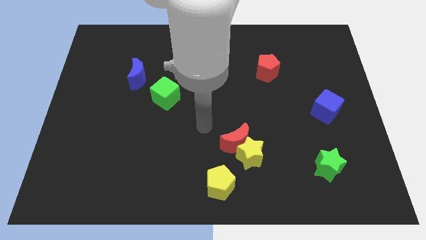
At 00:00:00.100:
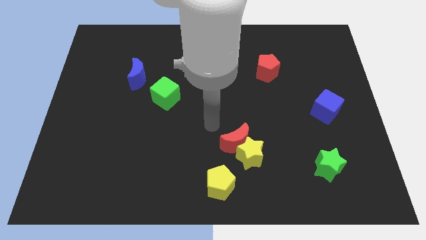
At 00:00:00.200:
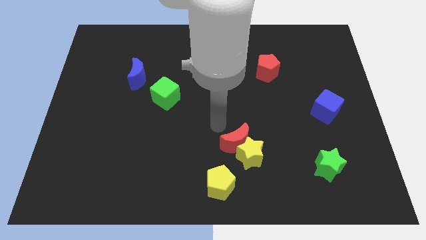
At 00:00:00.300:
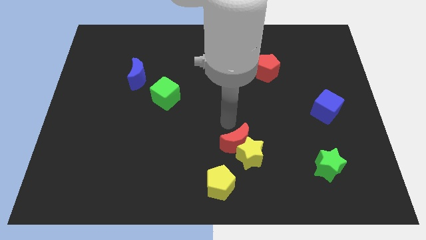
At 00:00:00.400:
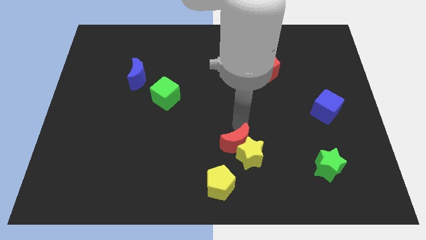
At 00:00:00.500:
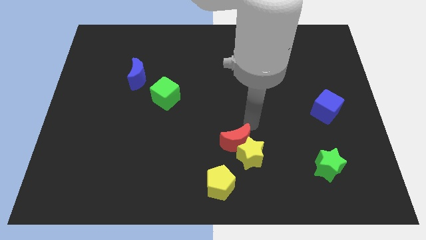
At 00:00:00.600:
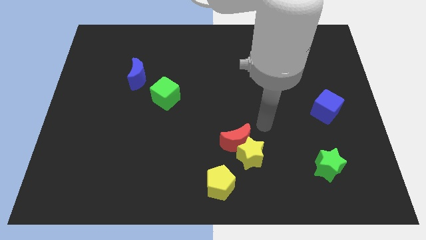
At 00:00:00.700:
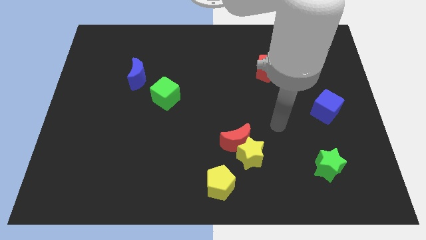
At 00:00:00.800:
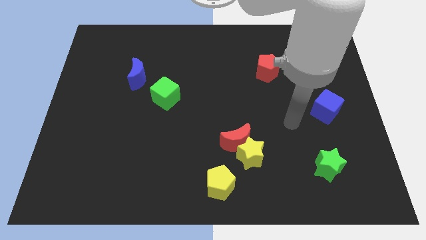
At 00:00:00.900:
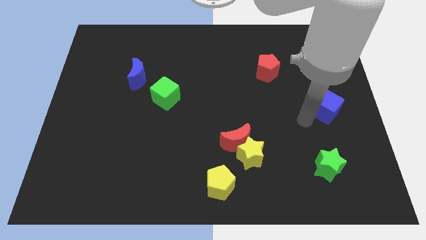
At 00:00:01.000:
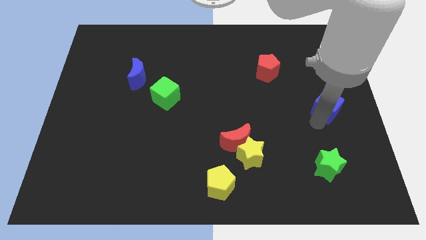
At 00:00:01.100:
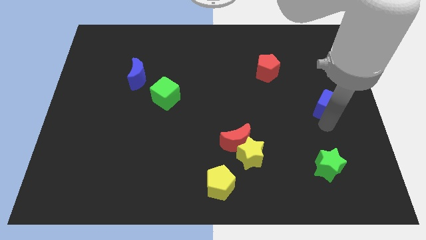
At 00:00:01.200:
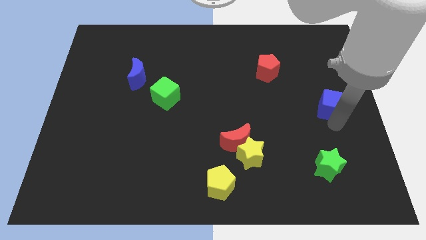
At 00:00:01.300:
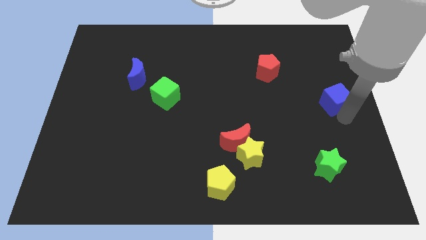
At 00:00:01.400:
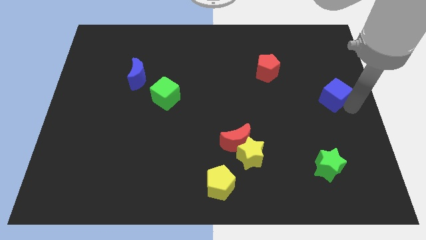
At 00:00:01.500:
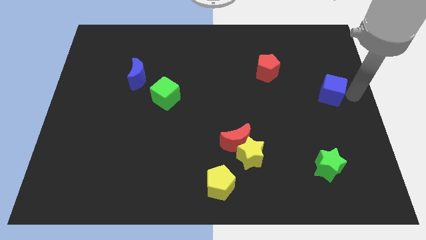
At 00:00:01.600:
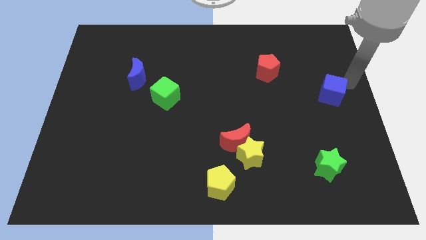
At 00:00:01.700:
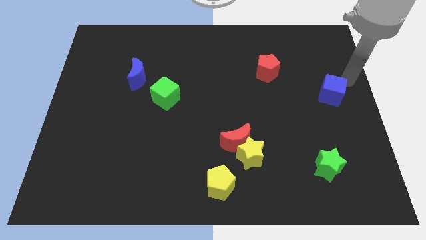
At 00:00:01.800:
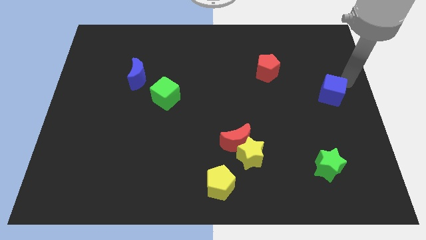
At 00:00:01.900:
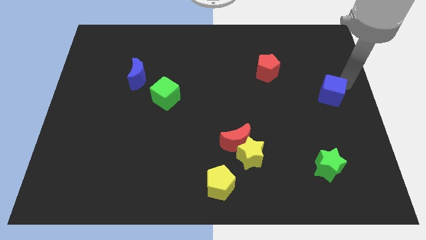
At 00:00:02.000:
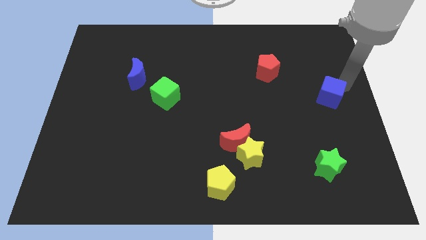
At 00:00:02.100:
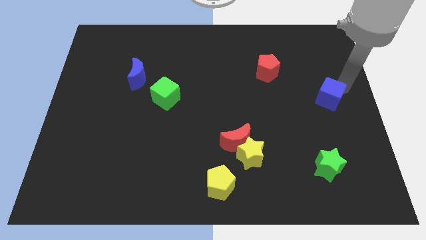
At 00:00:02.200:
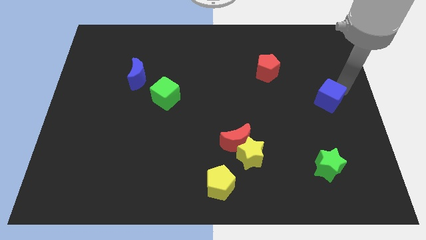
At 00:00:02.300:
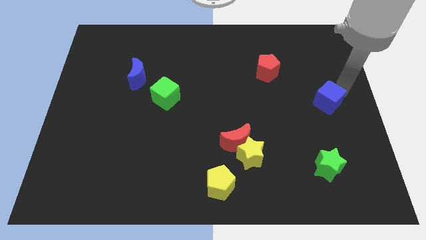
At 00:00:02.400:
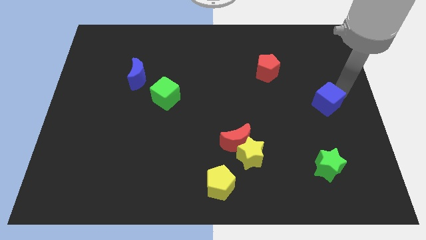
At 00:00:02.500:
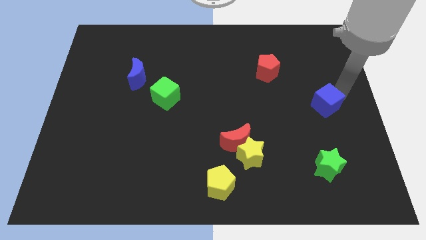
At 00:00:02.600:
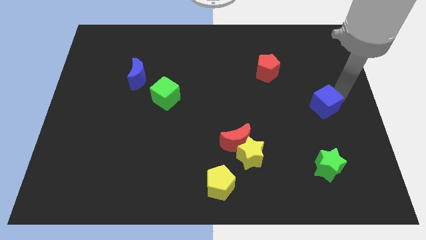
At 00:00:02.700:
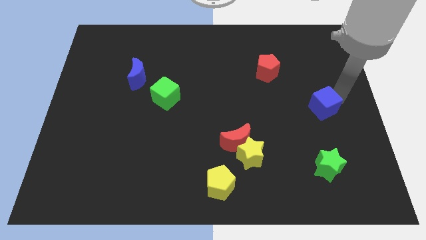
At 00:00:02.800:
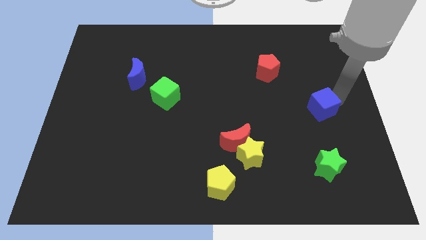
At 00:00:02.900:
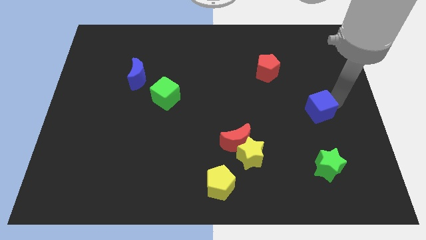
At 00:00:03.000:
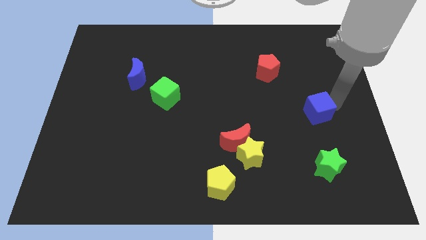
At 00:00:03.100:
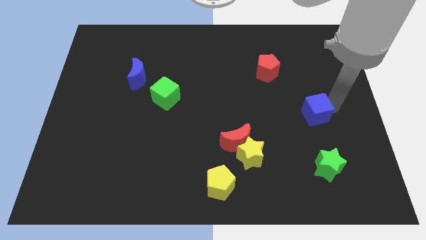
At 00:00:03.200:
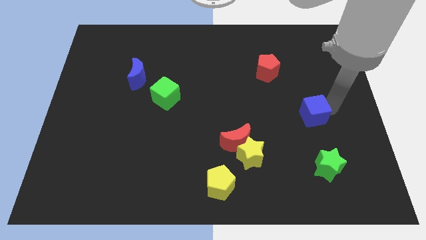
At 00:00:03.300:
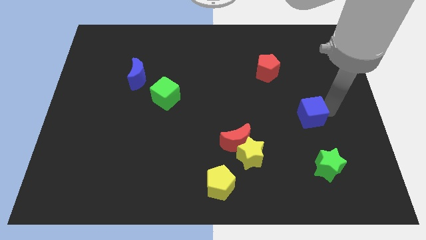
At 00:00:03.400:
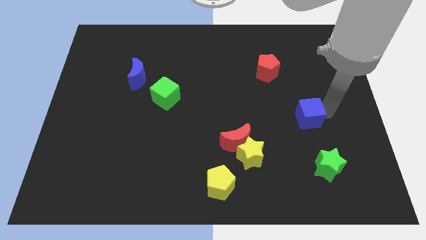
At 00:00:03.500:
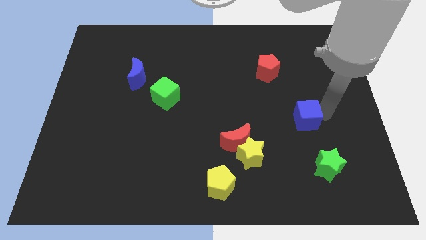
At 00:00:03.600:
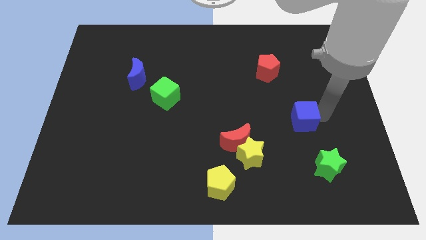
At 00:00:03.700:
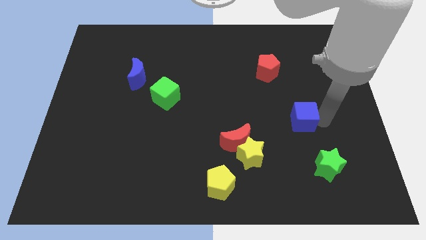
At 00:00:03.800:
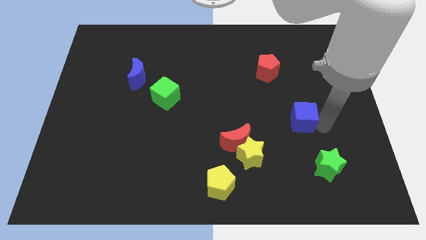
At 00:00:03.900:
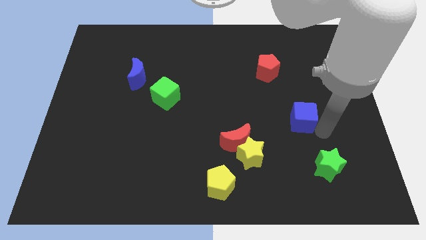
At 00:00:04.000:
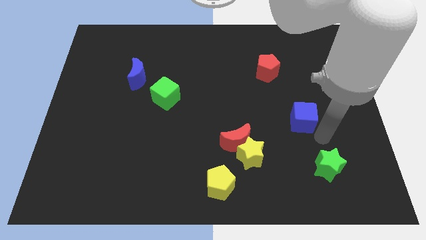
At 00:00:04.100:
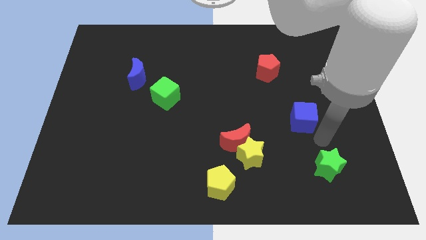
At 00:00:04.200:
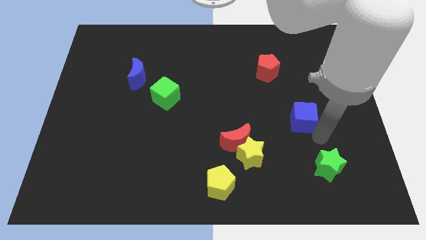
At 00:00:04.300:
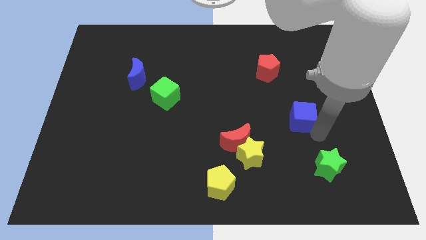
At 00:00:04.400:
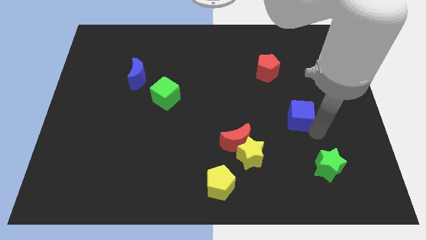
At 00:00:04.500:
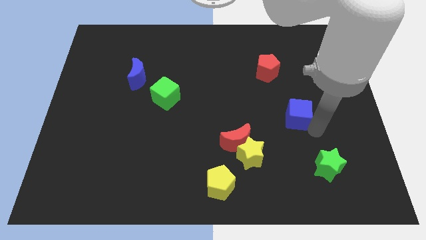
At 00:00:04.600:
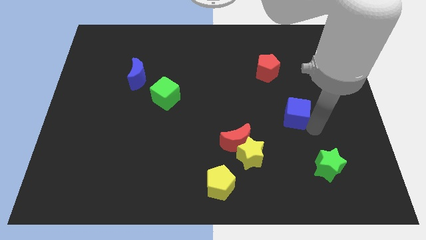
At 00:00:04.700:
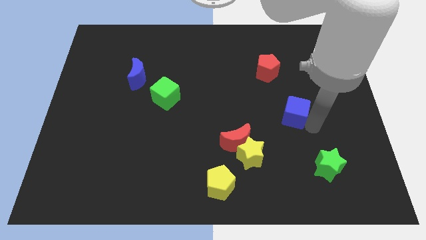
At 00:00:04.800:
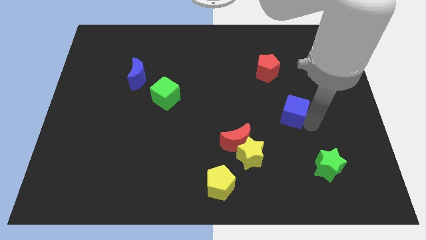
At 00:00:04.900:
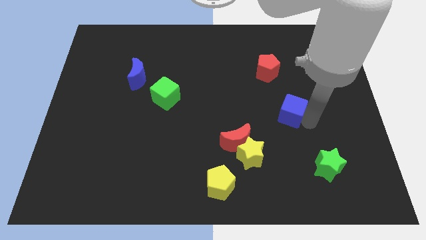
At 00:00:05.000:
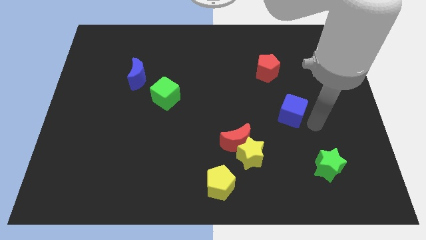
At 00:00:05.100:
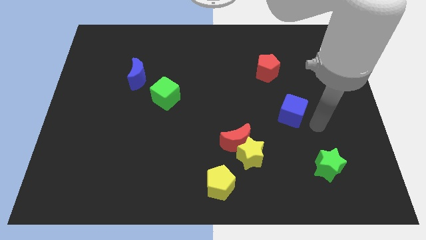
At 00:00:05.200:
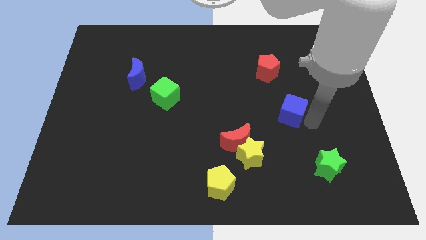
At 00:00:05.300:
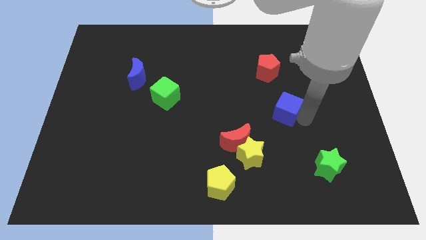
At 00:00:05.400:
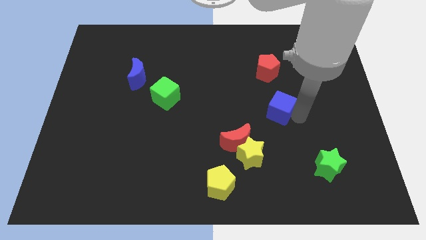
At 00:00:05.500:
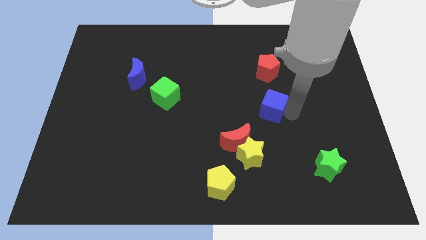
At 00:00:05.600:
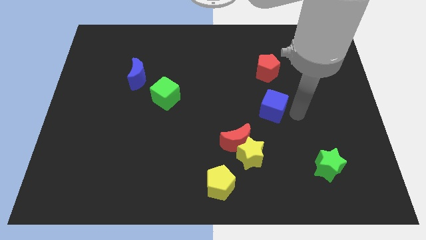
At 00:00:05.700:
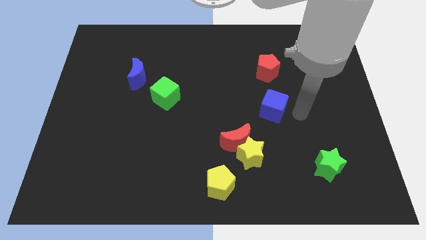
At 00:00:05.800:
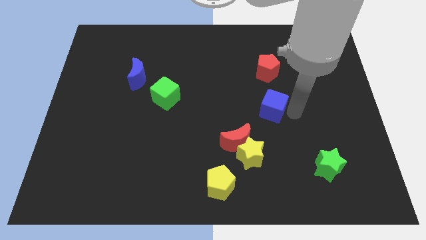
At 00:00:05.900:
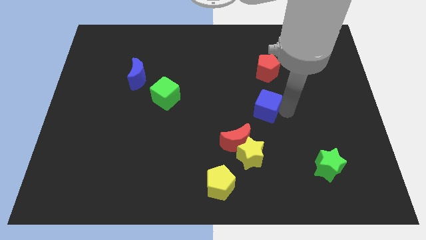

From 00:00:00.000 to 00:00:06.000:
move the blue cube to the center of the board
